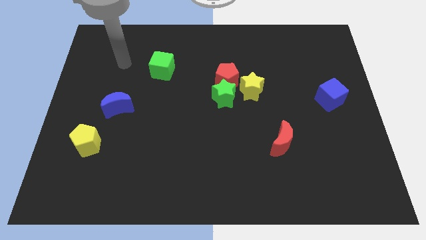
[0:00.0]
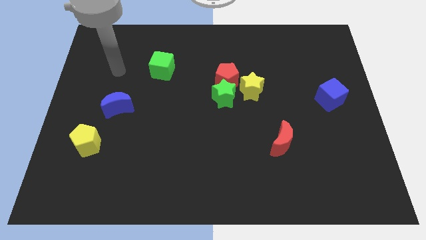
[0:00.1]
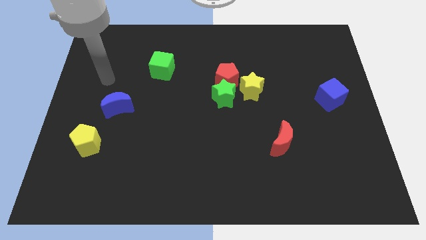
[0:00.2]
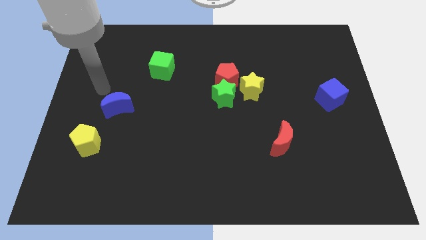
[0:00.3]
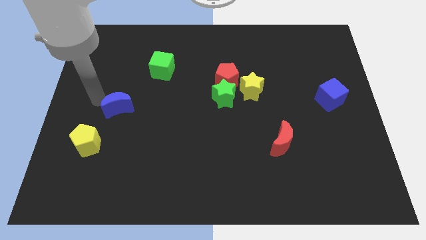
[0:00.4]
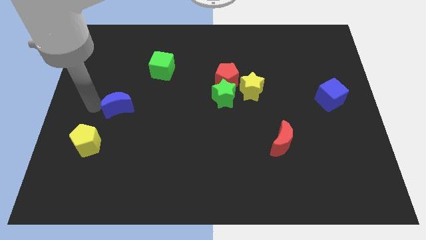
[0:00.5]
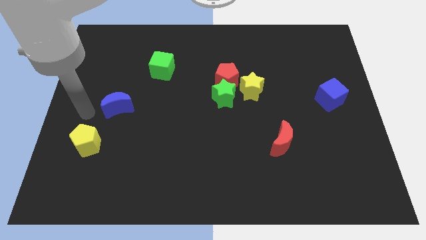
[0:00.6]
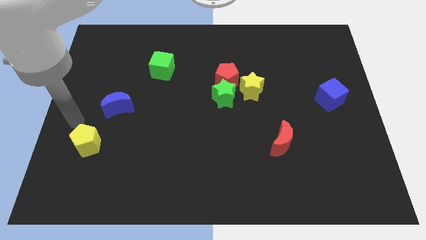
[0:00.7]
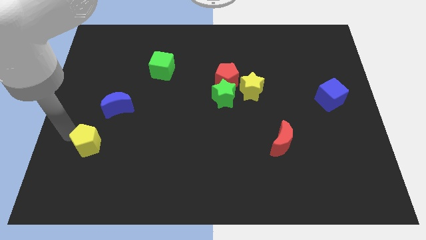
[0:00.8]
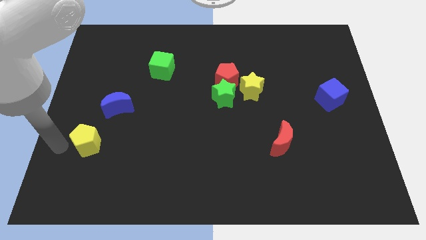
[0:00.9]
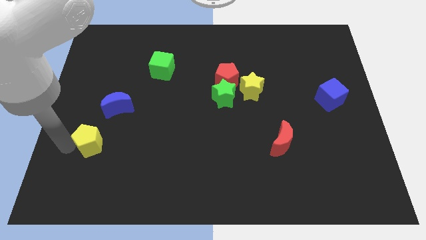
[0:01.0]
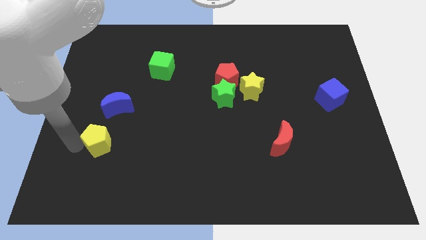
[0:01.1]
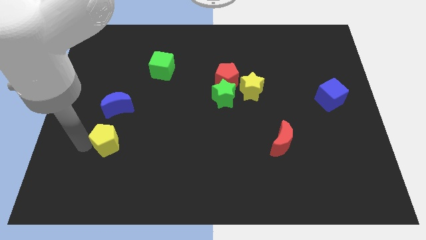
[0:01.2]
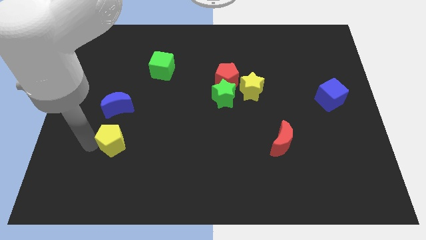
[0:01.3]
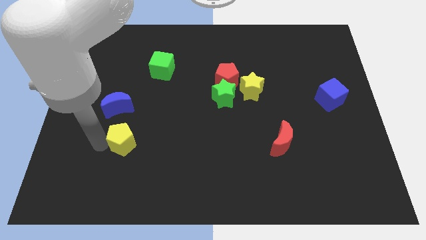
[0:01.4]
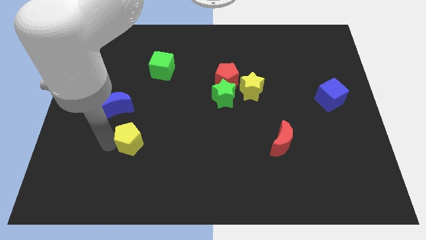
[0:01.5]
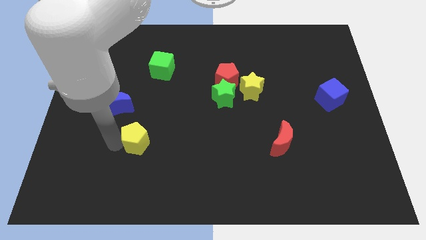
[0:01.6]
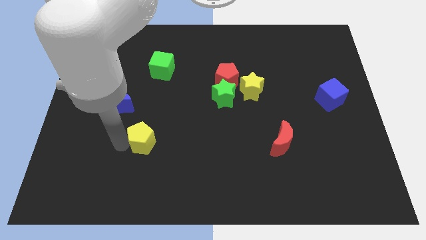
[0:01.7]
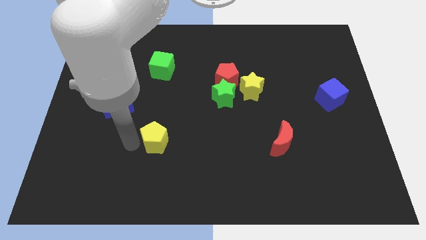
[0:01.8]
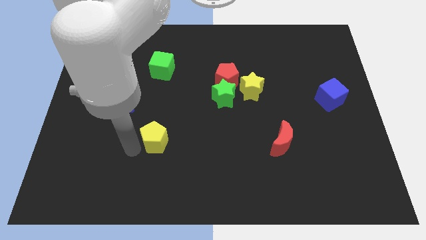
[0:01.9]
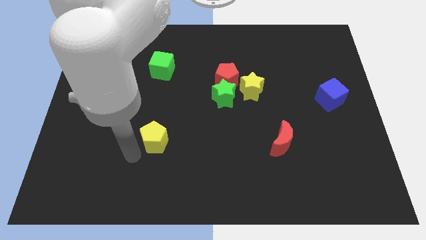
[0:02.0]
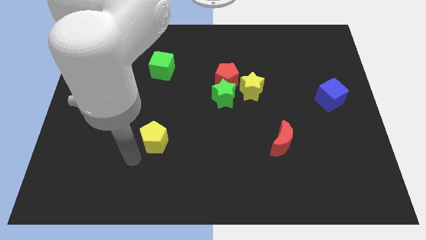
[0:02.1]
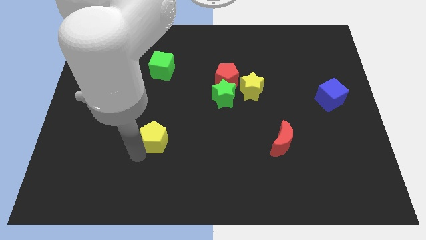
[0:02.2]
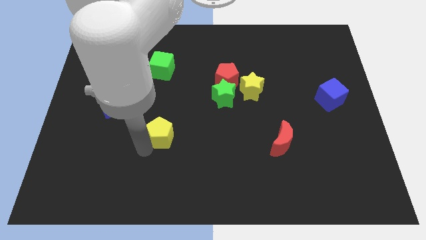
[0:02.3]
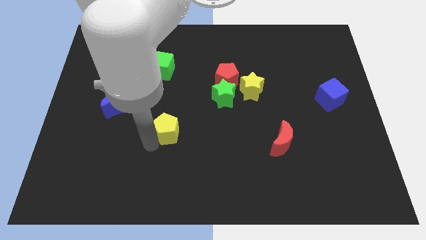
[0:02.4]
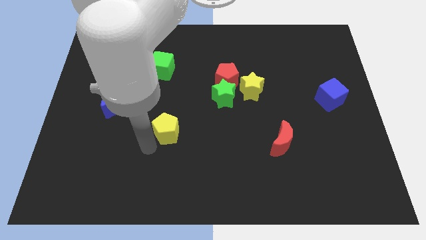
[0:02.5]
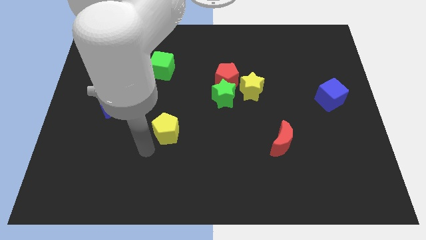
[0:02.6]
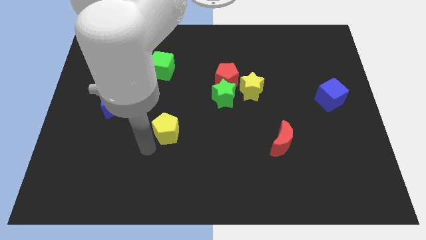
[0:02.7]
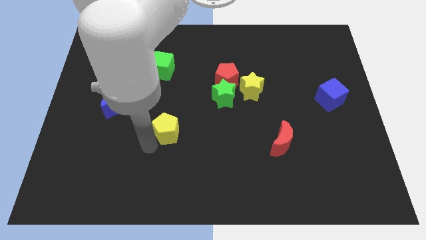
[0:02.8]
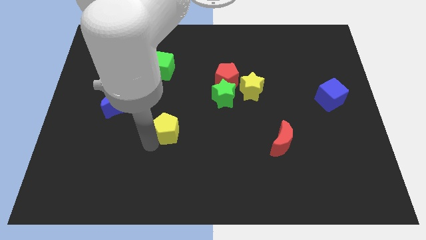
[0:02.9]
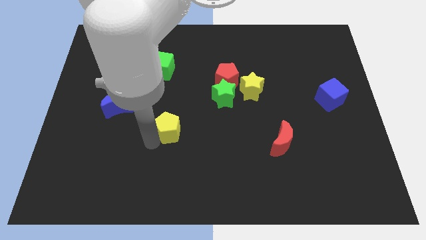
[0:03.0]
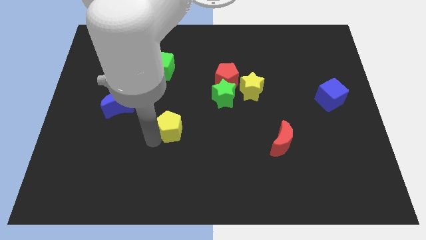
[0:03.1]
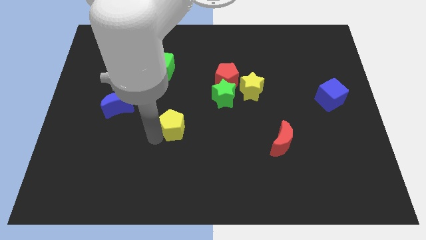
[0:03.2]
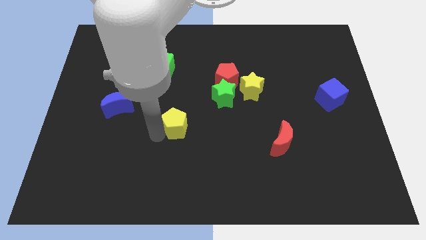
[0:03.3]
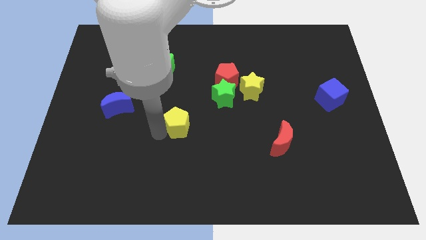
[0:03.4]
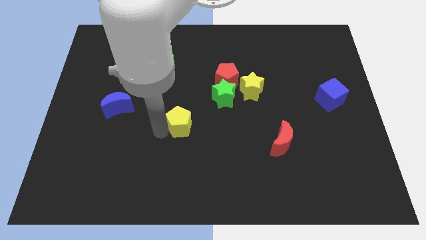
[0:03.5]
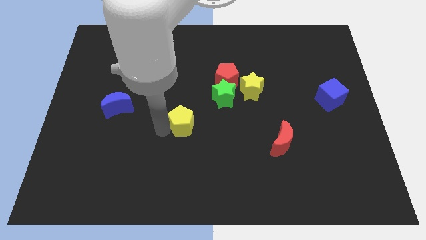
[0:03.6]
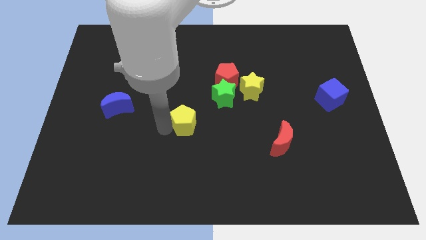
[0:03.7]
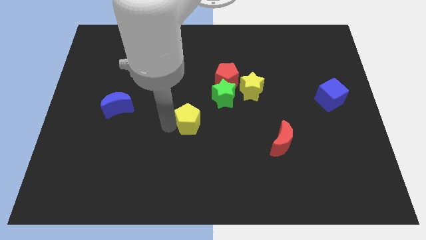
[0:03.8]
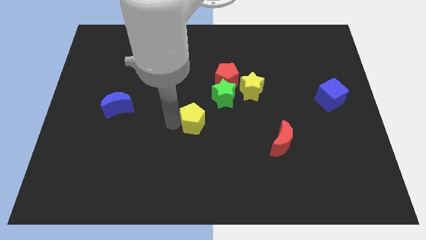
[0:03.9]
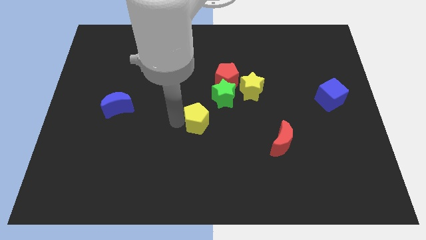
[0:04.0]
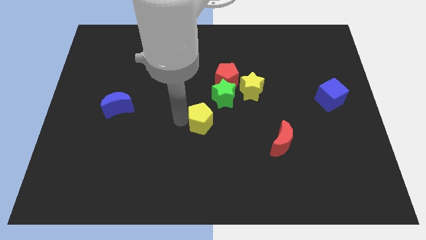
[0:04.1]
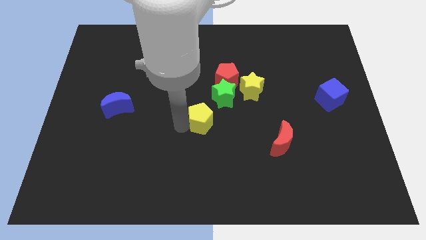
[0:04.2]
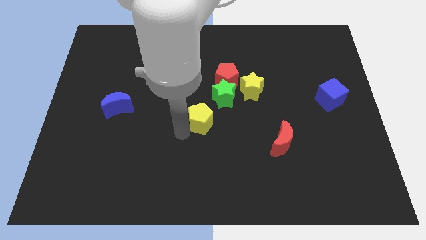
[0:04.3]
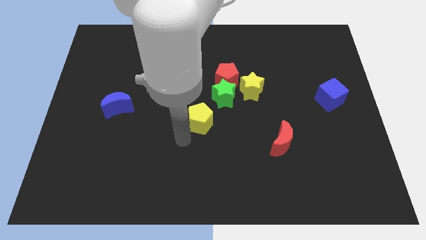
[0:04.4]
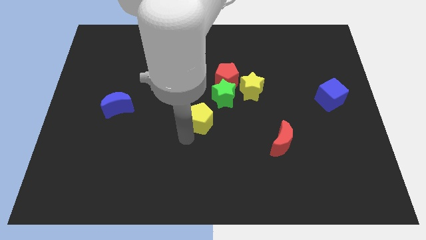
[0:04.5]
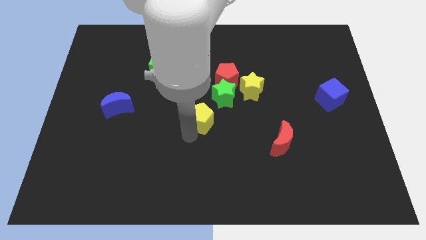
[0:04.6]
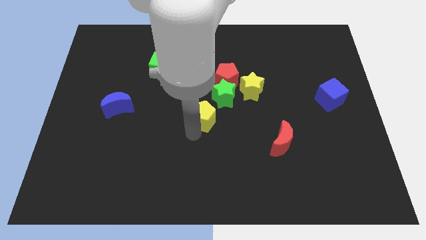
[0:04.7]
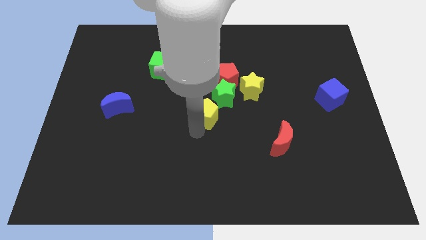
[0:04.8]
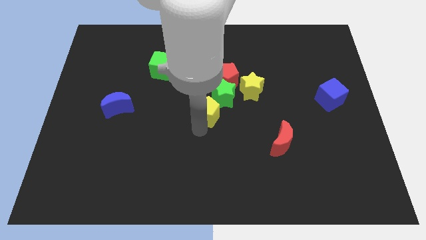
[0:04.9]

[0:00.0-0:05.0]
push the yellow pentagon to the green star

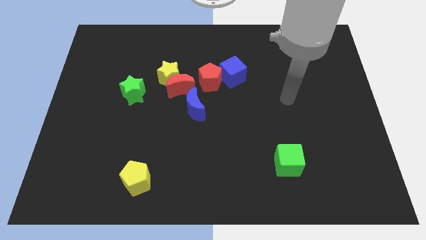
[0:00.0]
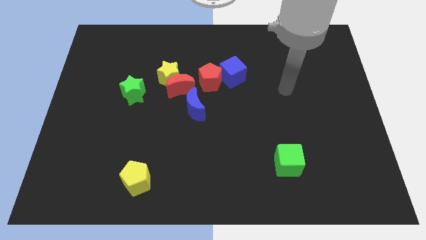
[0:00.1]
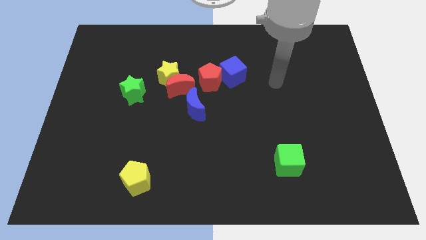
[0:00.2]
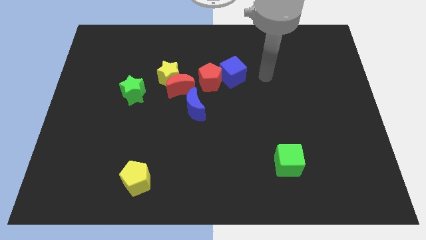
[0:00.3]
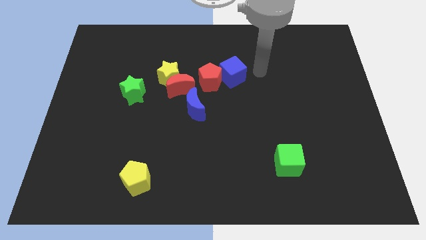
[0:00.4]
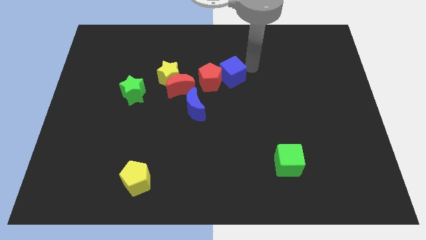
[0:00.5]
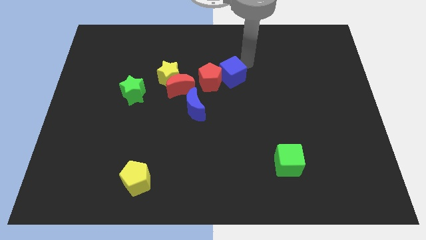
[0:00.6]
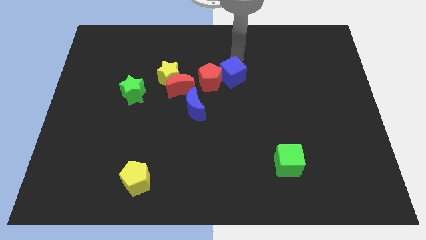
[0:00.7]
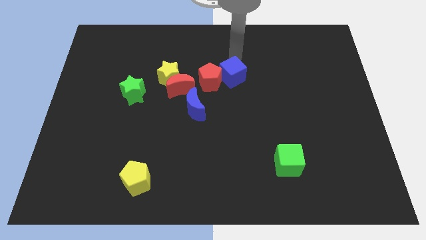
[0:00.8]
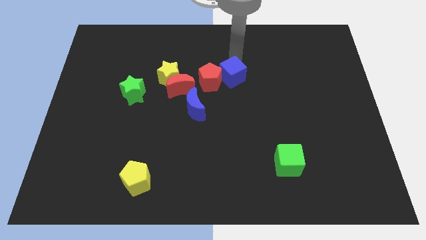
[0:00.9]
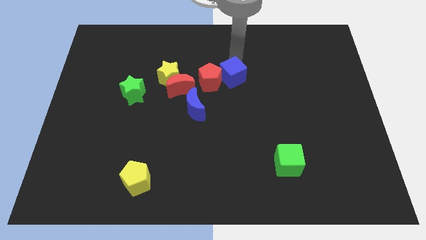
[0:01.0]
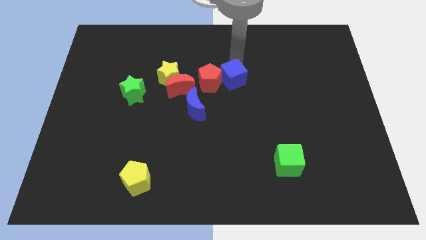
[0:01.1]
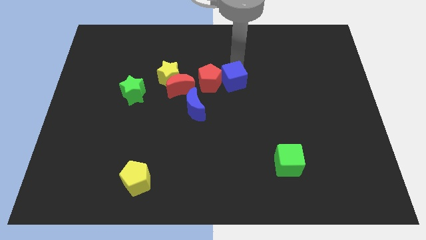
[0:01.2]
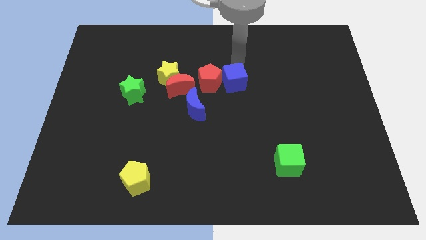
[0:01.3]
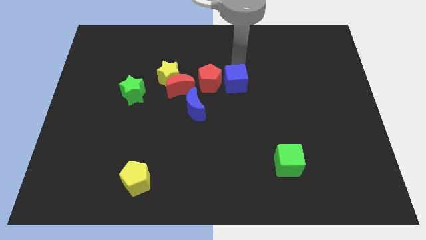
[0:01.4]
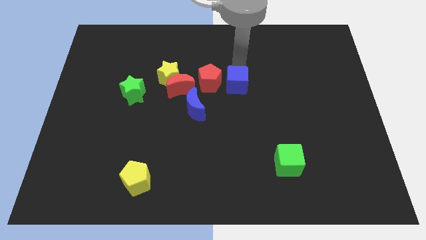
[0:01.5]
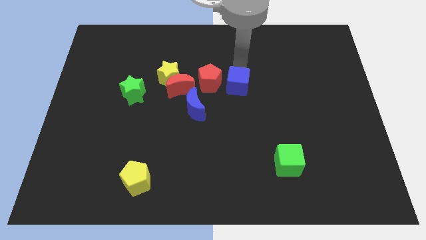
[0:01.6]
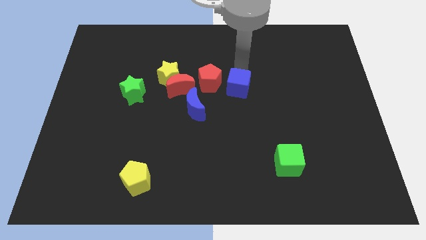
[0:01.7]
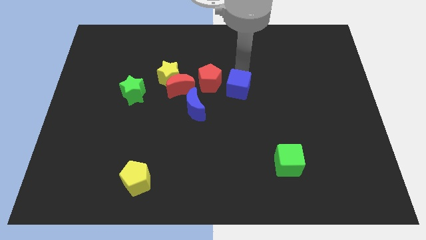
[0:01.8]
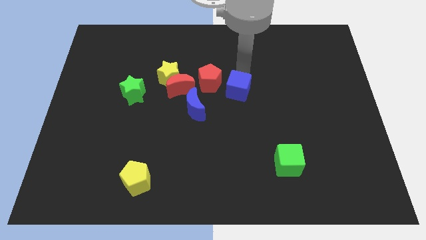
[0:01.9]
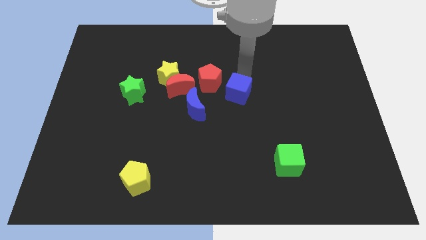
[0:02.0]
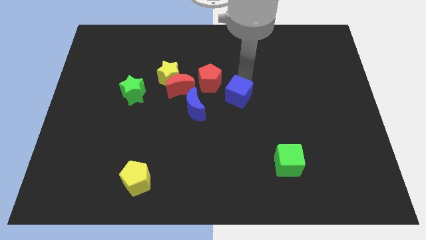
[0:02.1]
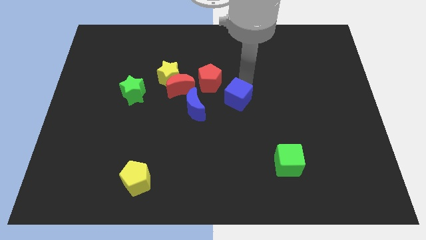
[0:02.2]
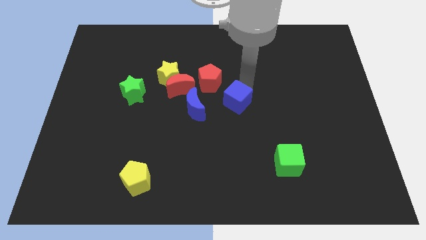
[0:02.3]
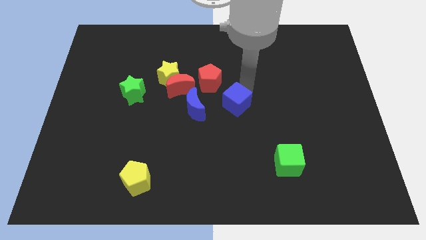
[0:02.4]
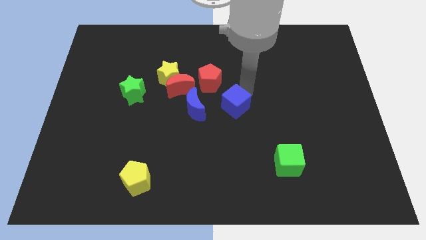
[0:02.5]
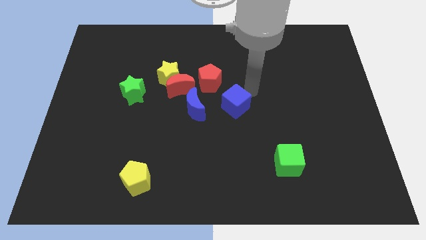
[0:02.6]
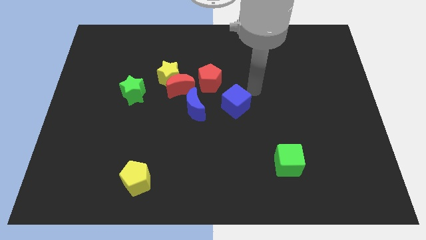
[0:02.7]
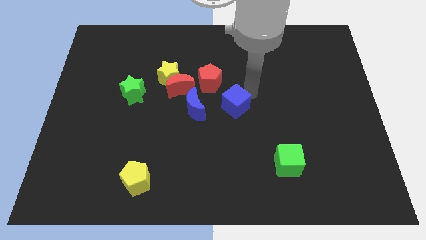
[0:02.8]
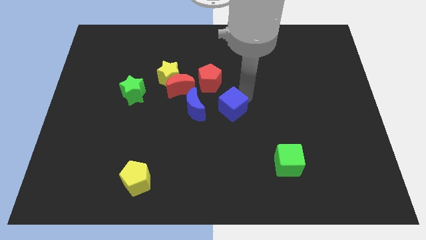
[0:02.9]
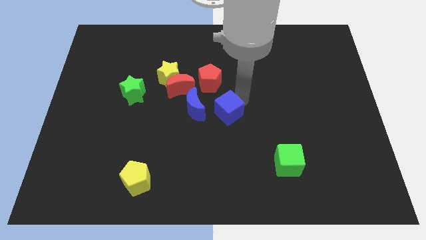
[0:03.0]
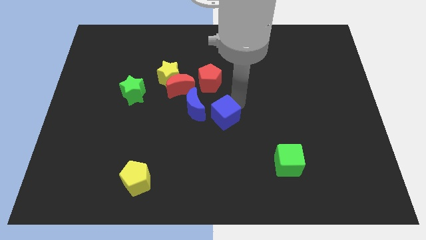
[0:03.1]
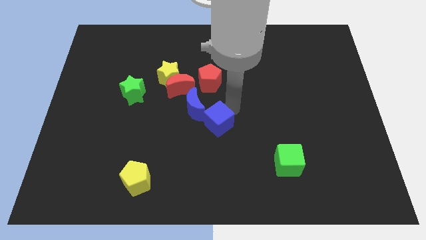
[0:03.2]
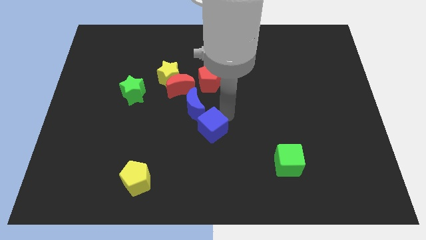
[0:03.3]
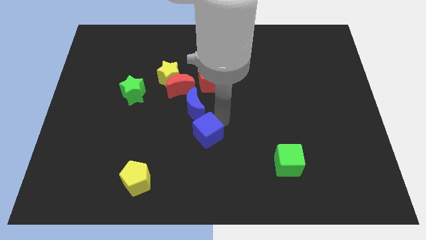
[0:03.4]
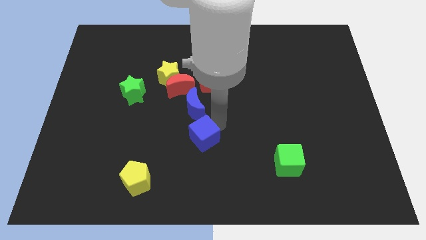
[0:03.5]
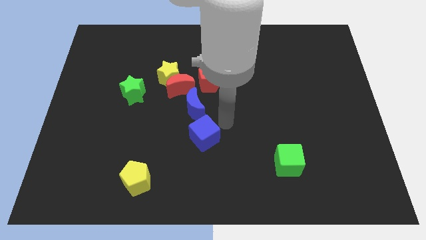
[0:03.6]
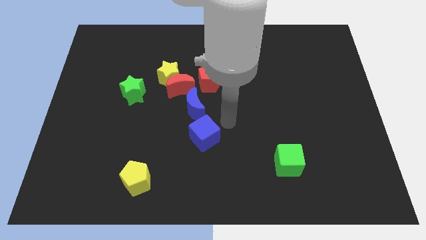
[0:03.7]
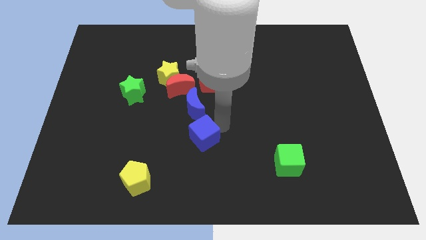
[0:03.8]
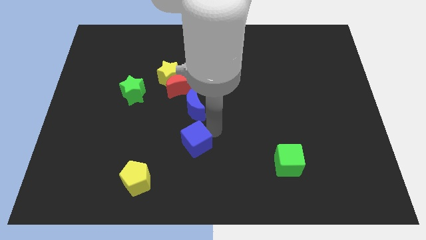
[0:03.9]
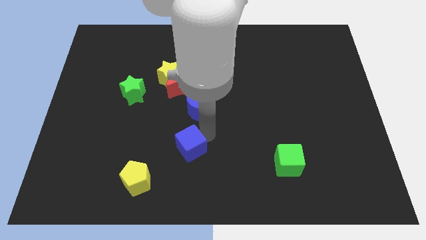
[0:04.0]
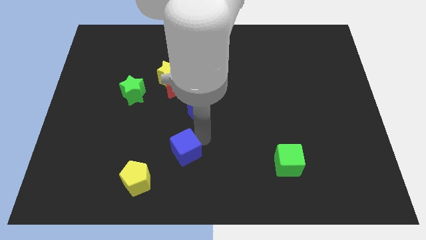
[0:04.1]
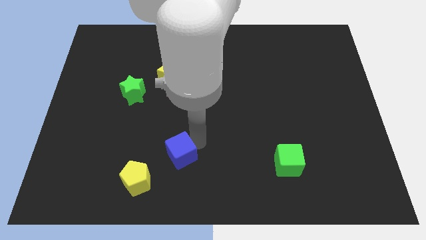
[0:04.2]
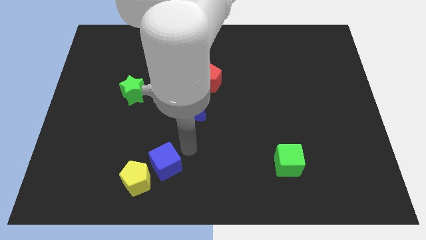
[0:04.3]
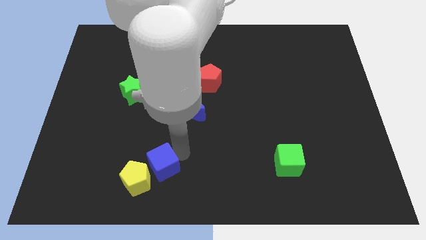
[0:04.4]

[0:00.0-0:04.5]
put the blue cube to the yellow pentagon
